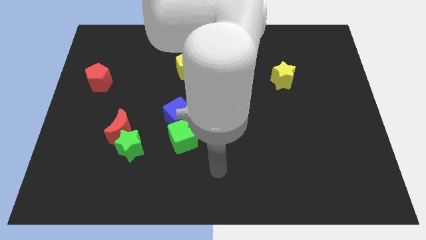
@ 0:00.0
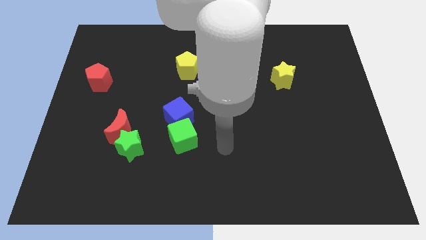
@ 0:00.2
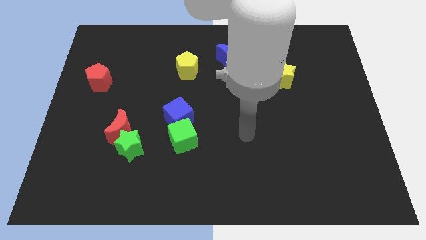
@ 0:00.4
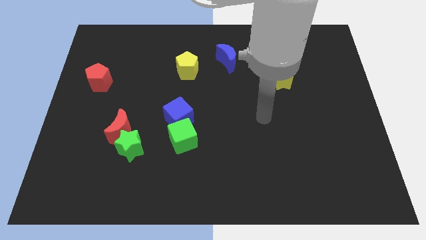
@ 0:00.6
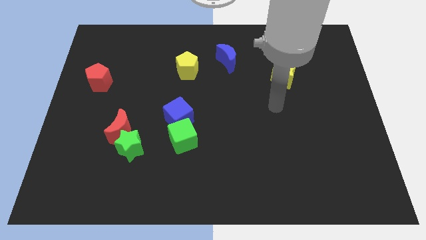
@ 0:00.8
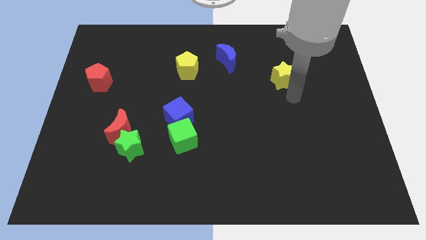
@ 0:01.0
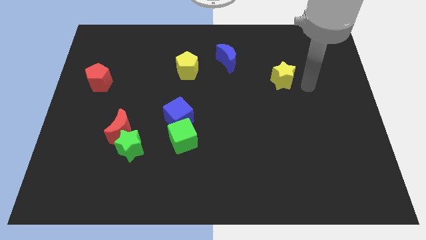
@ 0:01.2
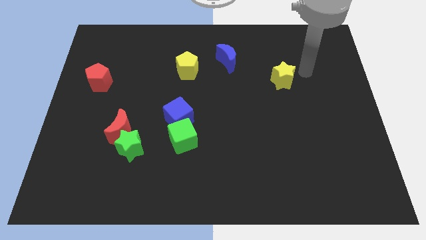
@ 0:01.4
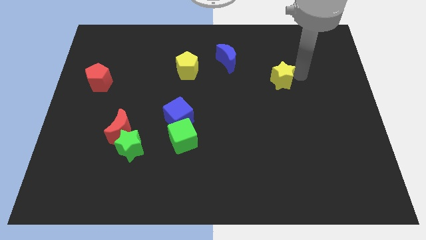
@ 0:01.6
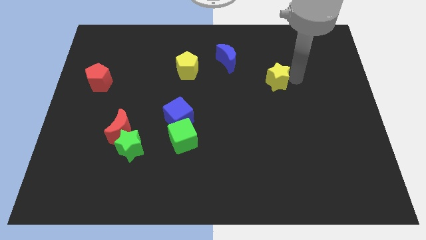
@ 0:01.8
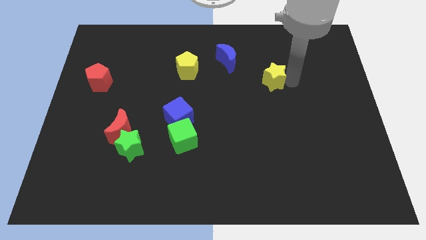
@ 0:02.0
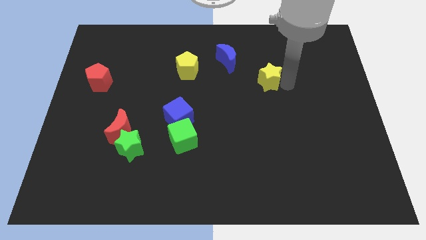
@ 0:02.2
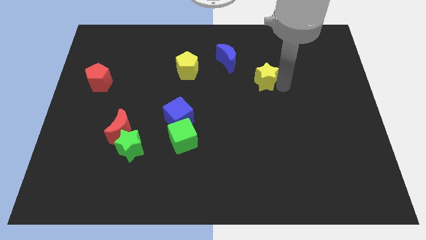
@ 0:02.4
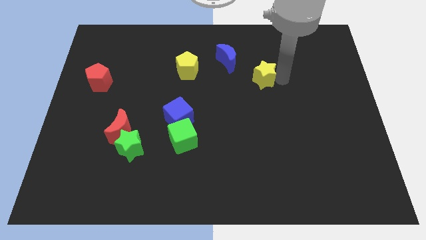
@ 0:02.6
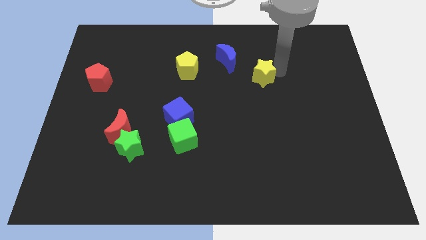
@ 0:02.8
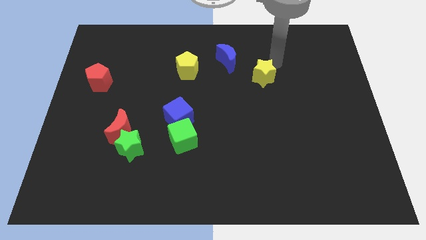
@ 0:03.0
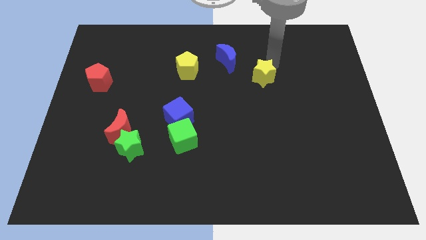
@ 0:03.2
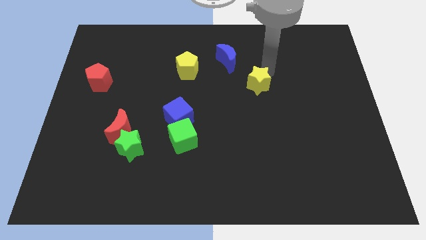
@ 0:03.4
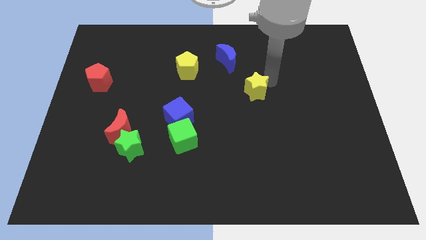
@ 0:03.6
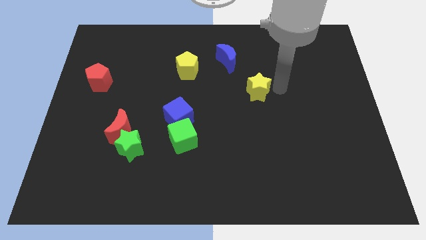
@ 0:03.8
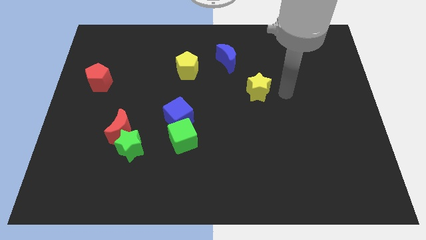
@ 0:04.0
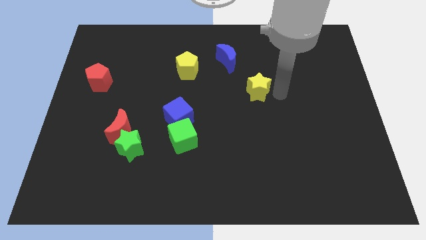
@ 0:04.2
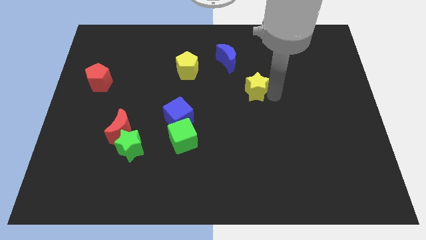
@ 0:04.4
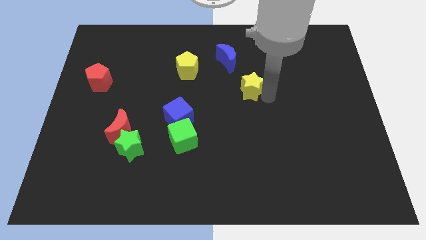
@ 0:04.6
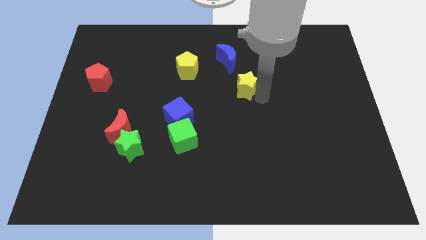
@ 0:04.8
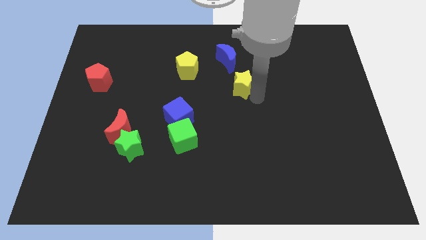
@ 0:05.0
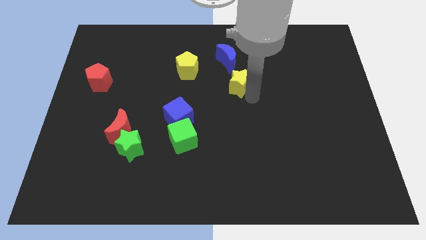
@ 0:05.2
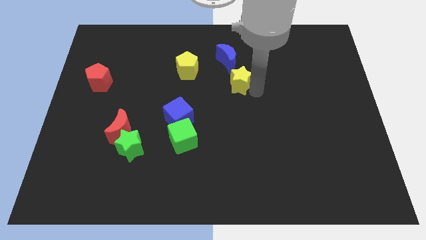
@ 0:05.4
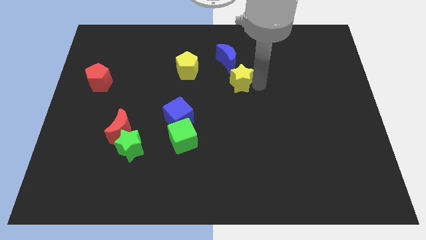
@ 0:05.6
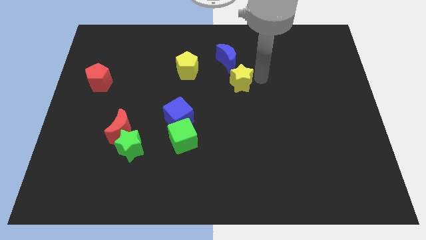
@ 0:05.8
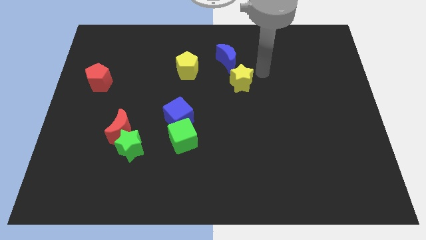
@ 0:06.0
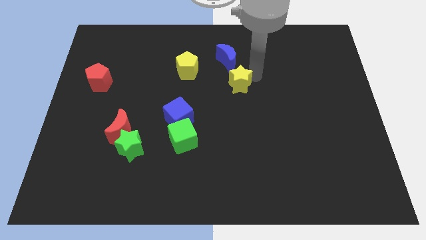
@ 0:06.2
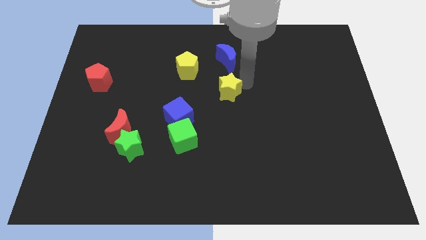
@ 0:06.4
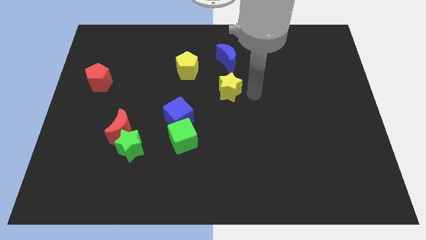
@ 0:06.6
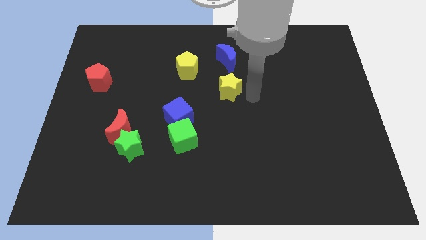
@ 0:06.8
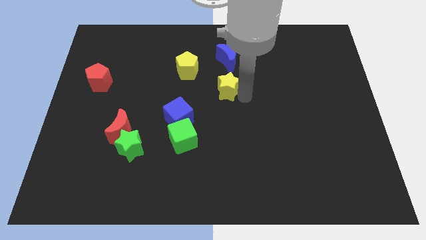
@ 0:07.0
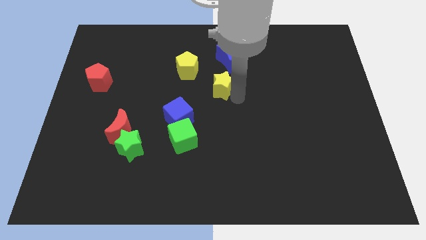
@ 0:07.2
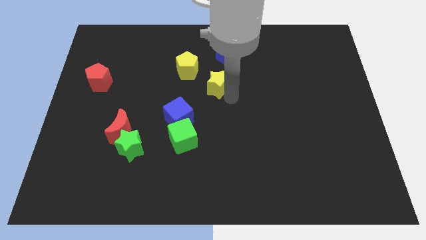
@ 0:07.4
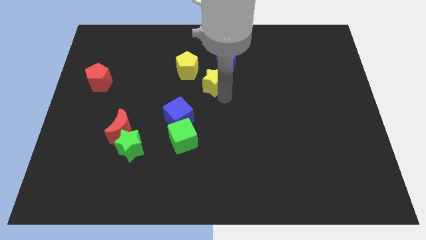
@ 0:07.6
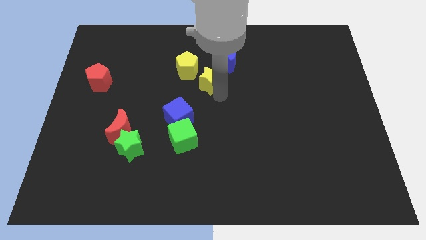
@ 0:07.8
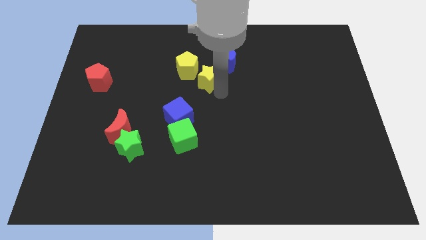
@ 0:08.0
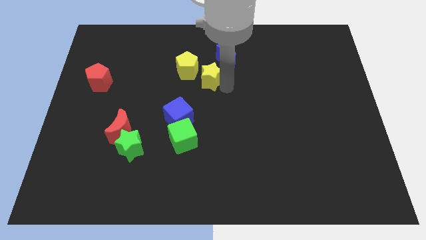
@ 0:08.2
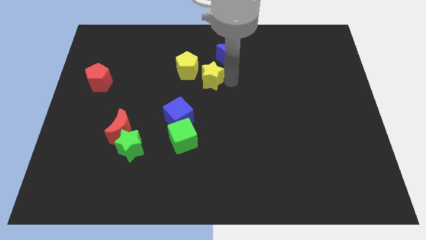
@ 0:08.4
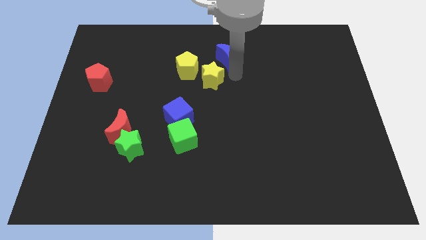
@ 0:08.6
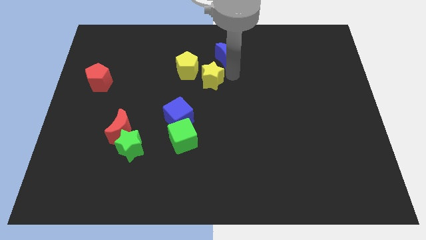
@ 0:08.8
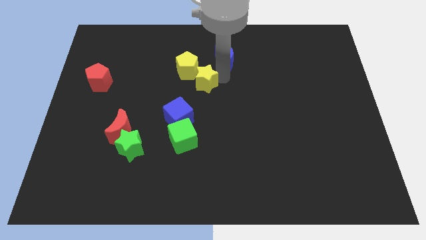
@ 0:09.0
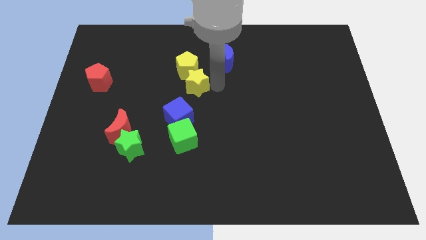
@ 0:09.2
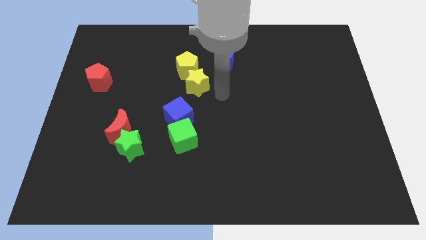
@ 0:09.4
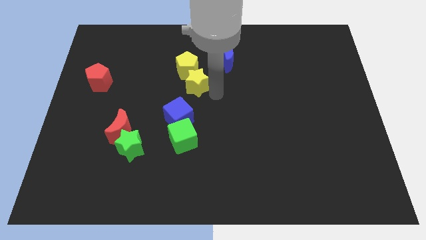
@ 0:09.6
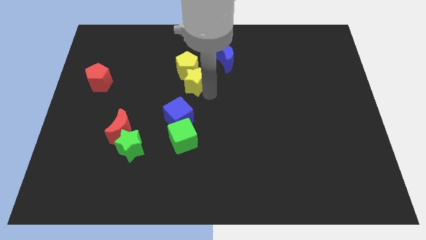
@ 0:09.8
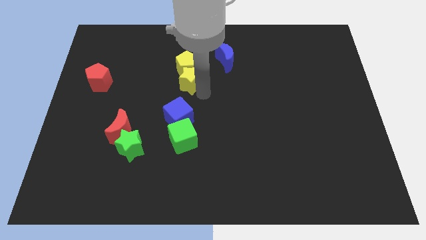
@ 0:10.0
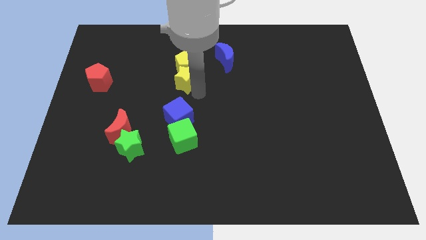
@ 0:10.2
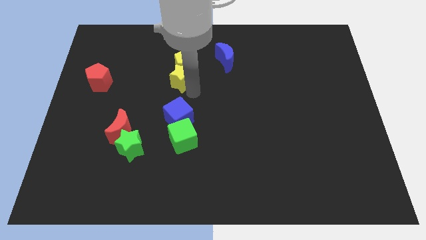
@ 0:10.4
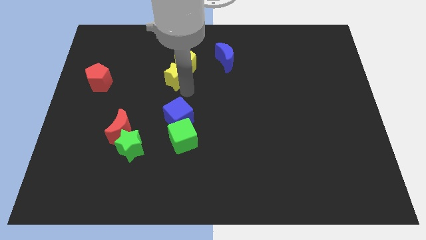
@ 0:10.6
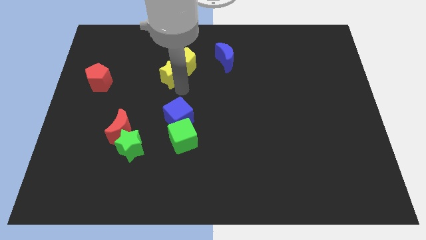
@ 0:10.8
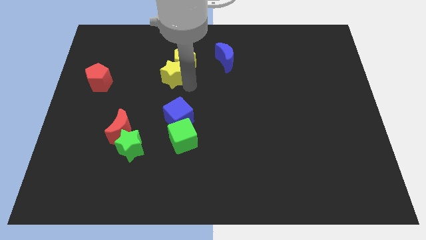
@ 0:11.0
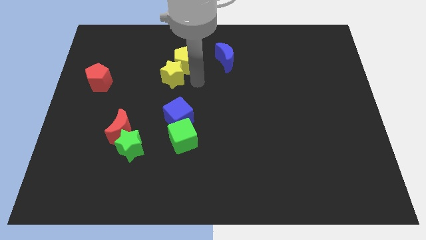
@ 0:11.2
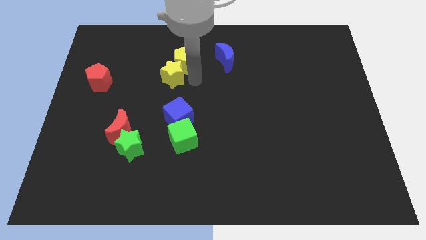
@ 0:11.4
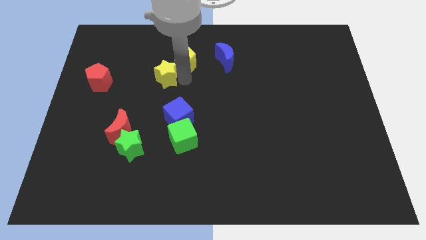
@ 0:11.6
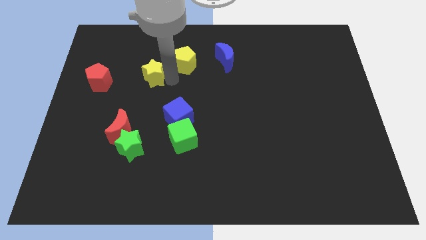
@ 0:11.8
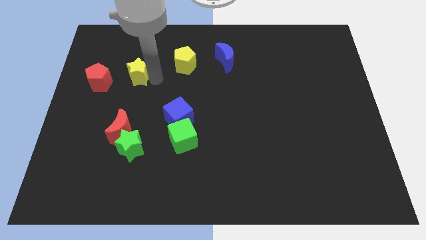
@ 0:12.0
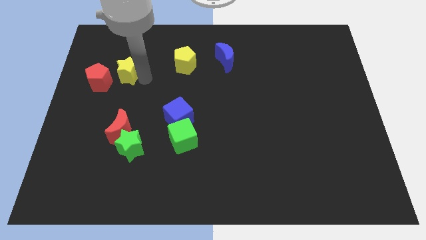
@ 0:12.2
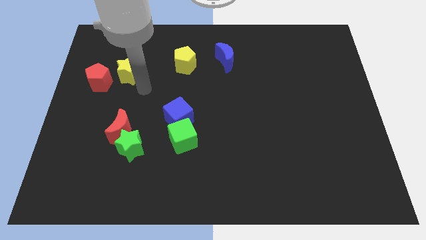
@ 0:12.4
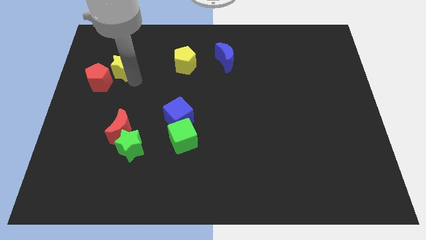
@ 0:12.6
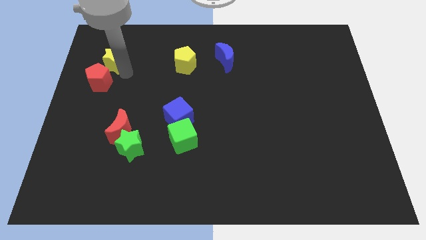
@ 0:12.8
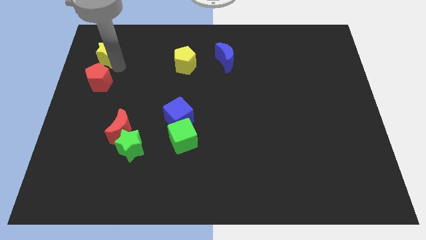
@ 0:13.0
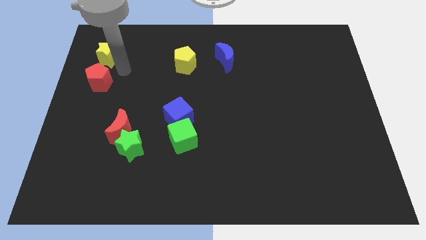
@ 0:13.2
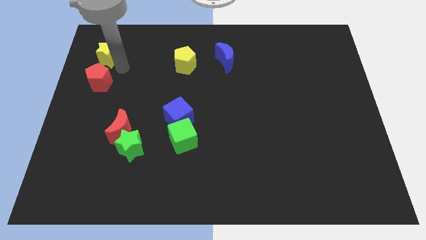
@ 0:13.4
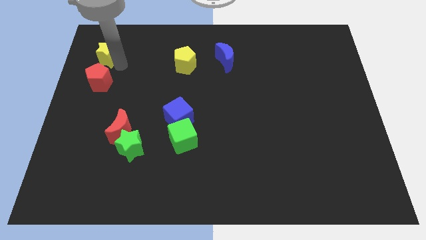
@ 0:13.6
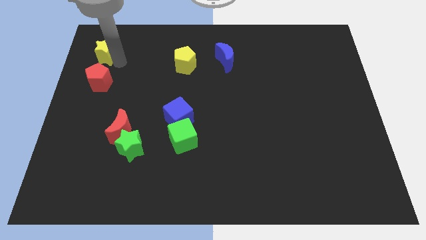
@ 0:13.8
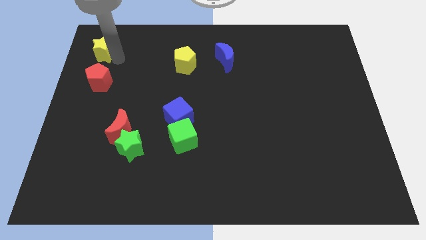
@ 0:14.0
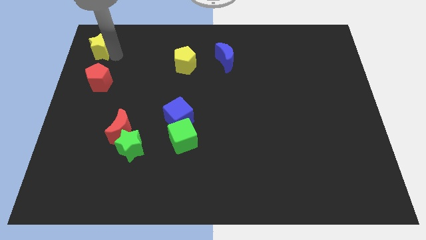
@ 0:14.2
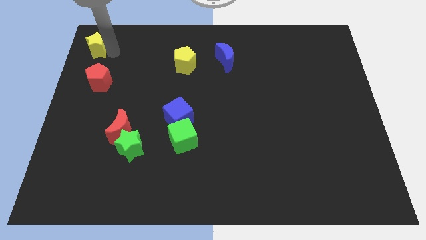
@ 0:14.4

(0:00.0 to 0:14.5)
slide the yellow star to the top left corner
